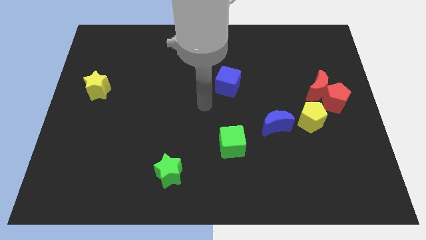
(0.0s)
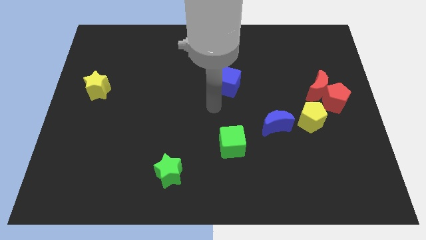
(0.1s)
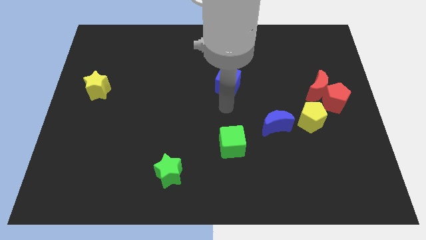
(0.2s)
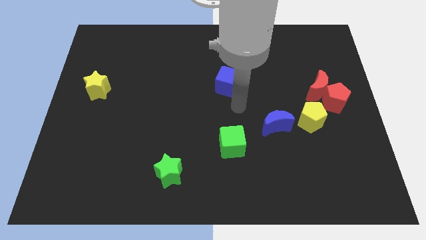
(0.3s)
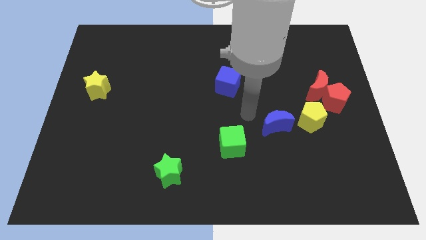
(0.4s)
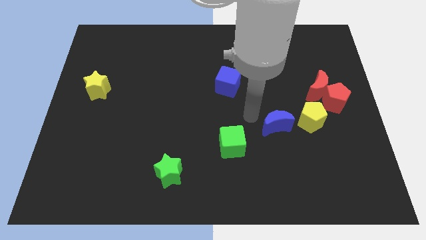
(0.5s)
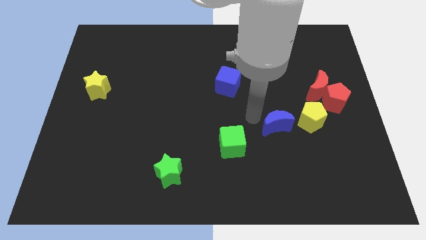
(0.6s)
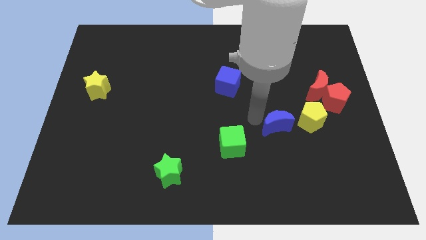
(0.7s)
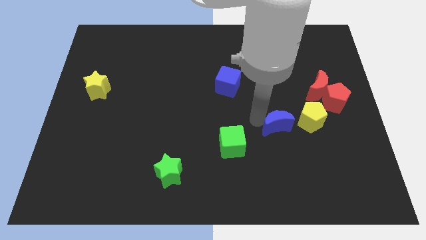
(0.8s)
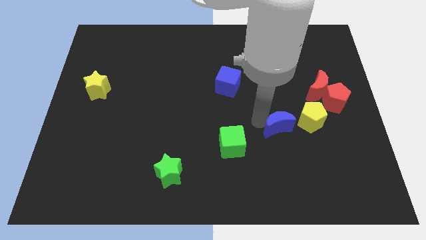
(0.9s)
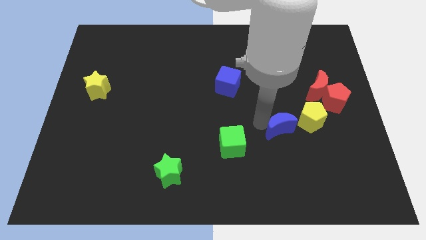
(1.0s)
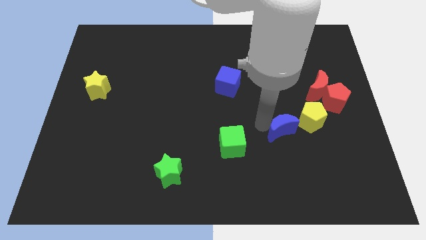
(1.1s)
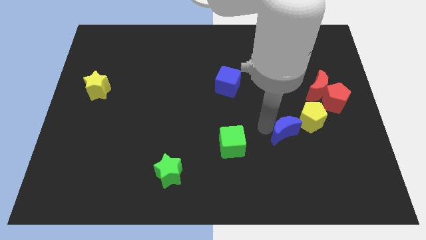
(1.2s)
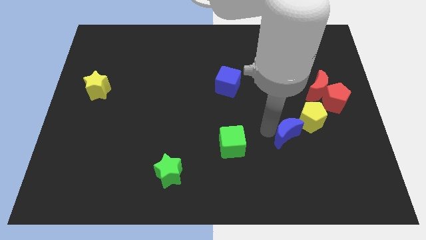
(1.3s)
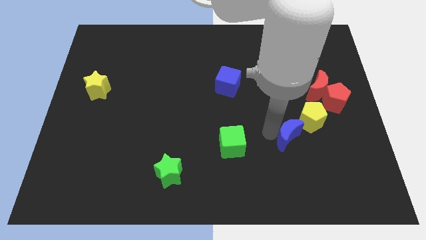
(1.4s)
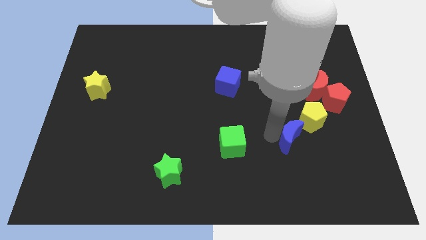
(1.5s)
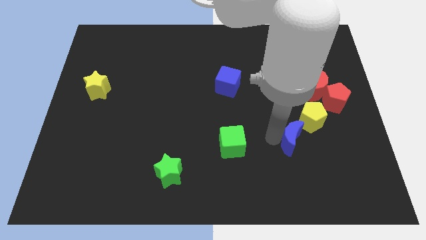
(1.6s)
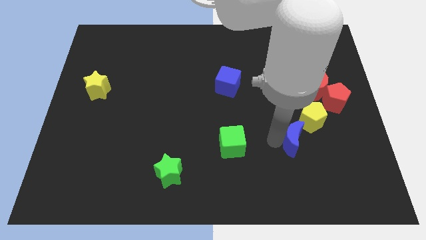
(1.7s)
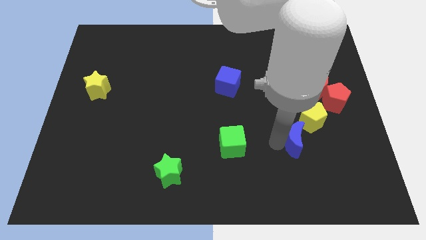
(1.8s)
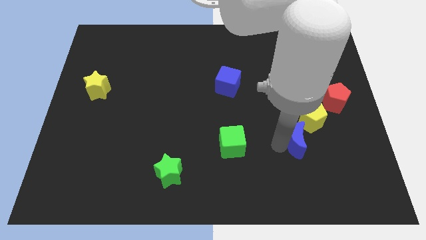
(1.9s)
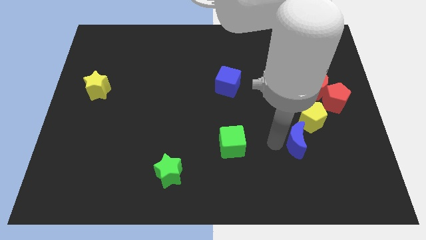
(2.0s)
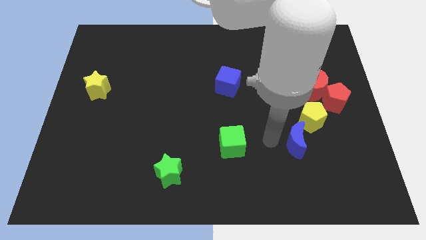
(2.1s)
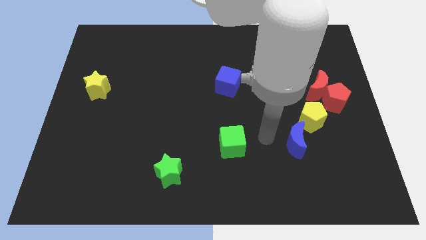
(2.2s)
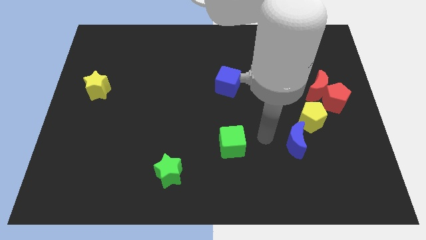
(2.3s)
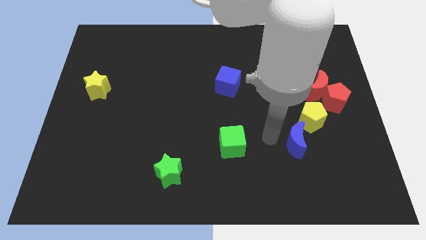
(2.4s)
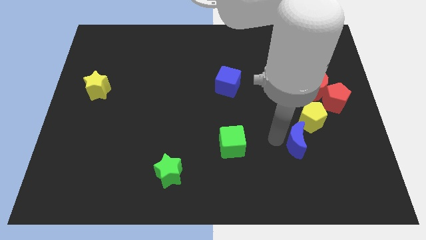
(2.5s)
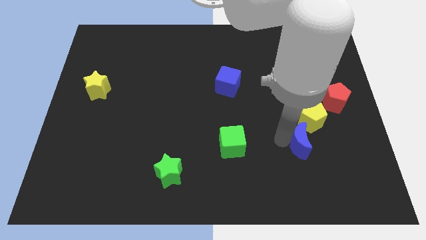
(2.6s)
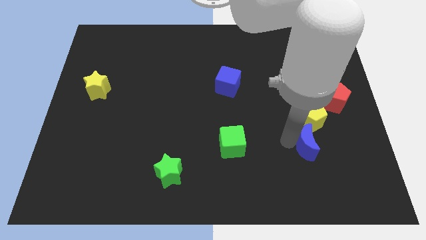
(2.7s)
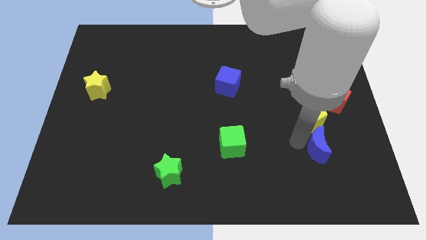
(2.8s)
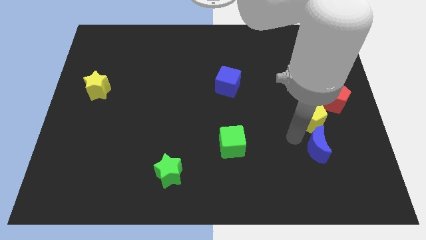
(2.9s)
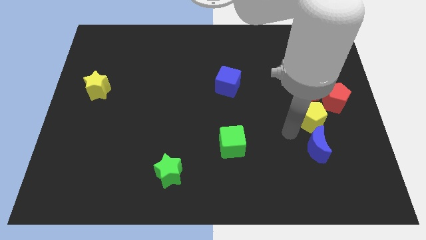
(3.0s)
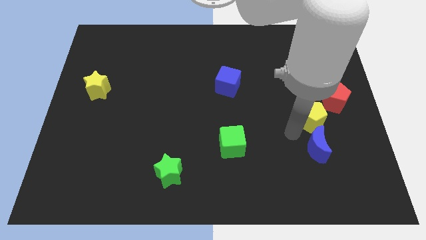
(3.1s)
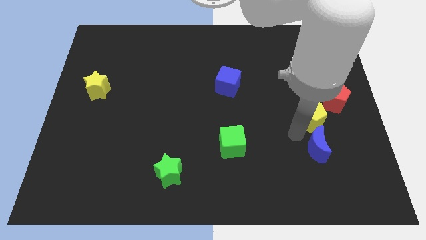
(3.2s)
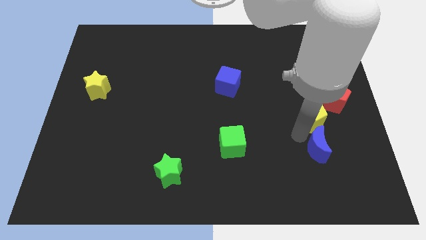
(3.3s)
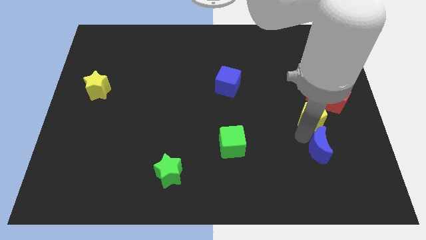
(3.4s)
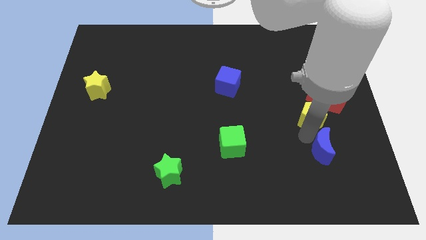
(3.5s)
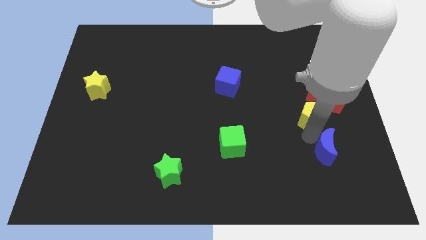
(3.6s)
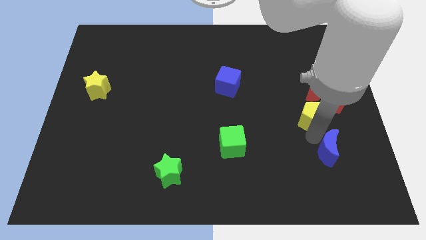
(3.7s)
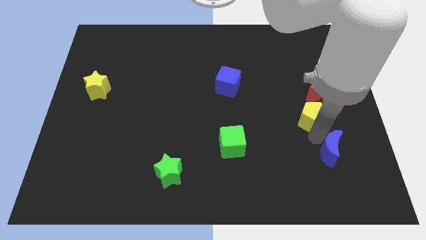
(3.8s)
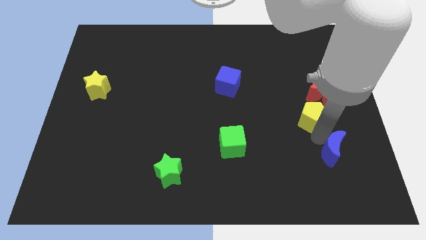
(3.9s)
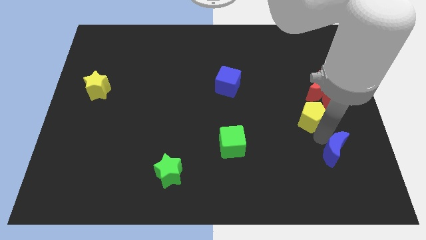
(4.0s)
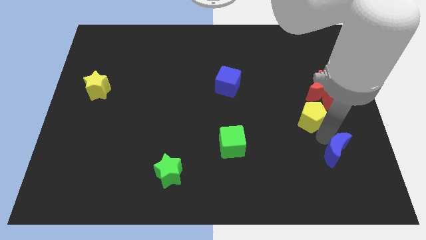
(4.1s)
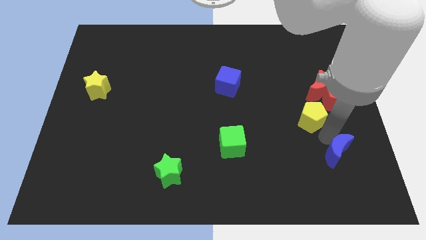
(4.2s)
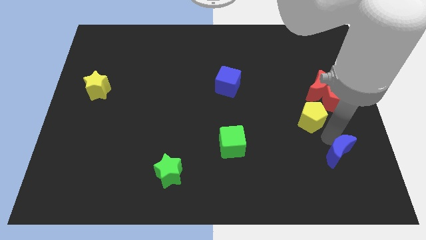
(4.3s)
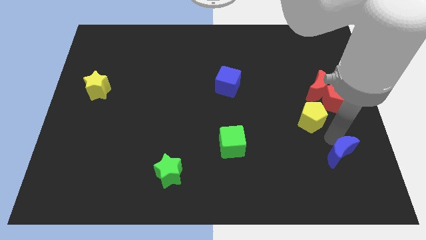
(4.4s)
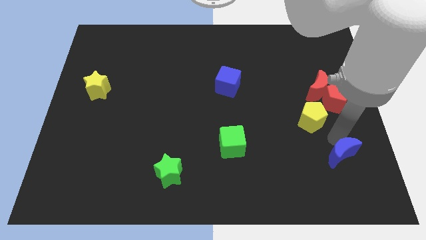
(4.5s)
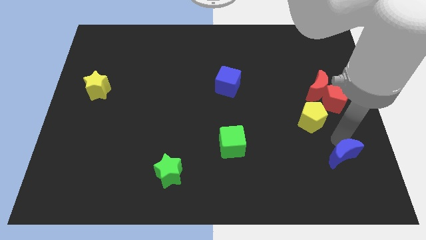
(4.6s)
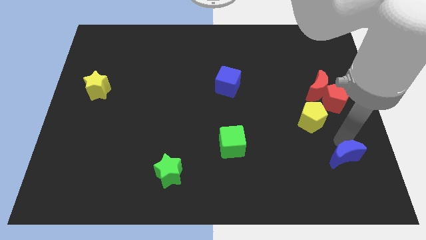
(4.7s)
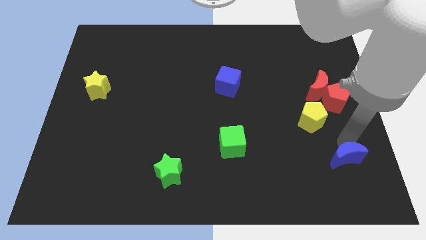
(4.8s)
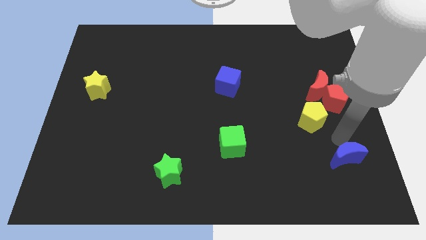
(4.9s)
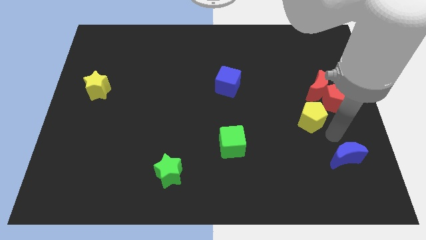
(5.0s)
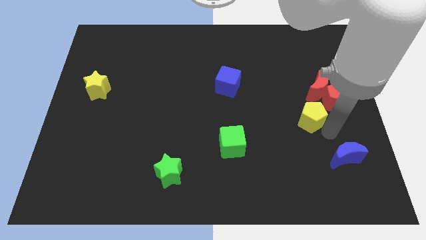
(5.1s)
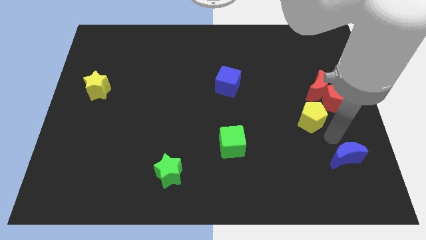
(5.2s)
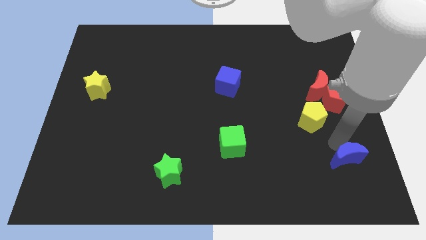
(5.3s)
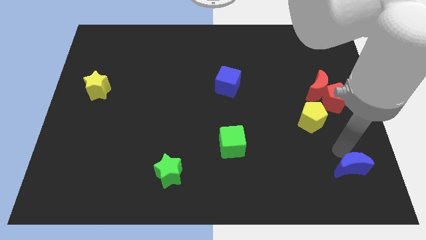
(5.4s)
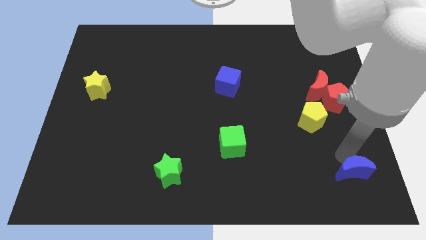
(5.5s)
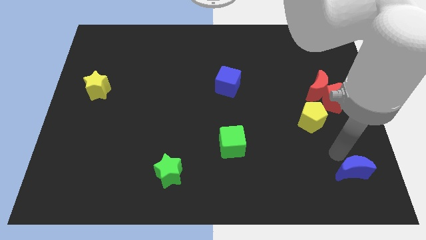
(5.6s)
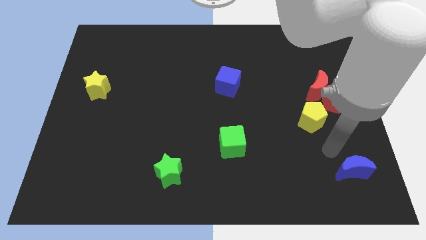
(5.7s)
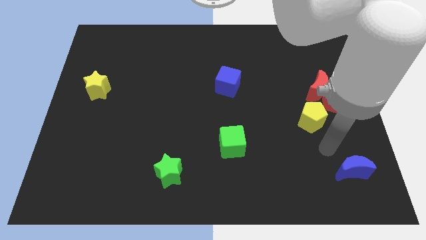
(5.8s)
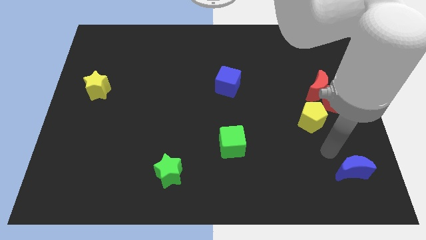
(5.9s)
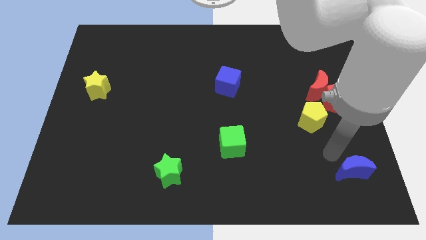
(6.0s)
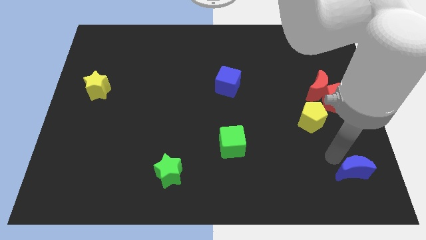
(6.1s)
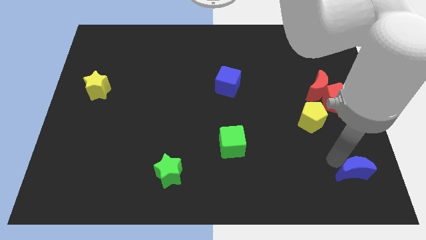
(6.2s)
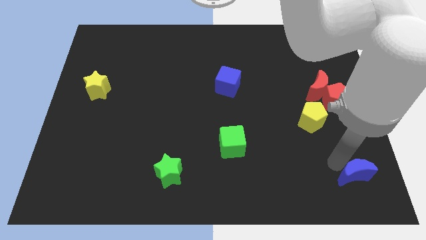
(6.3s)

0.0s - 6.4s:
put the blue moon to the bottom right of the board
